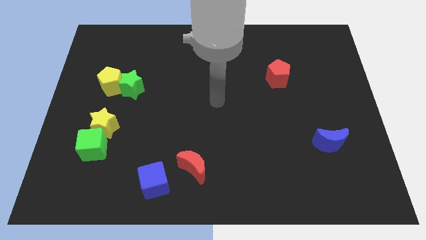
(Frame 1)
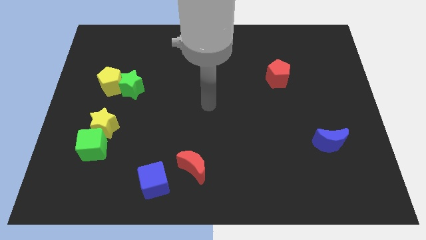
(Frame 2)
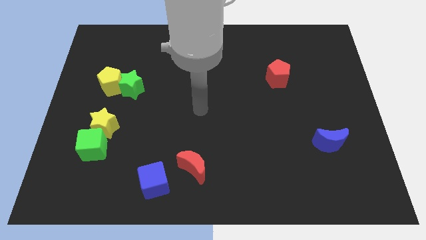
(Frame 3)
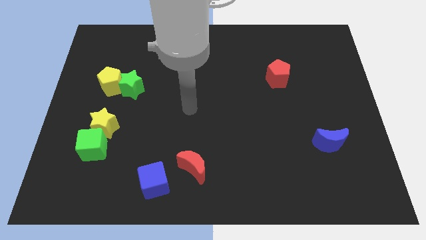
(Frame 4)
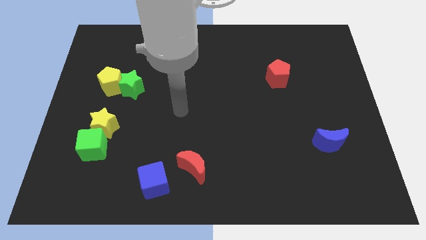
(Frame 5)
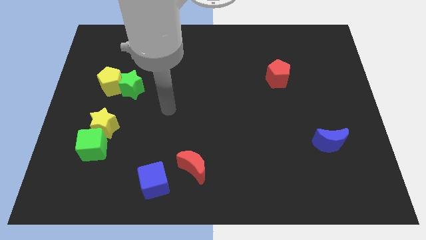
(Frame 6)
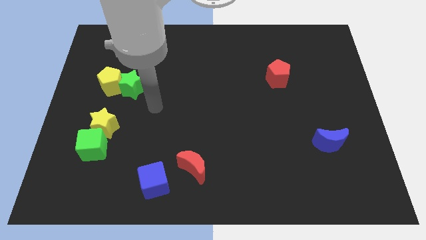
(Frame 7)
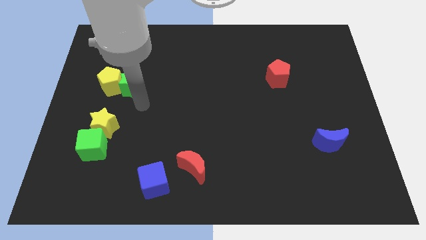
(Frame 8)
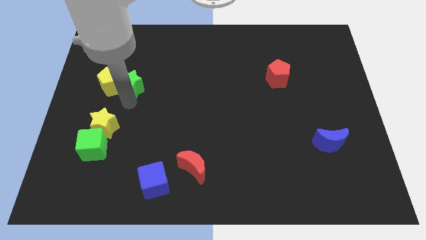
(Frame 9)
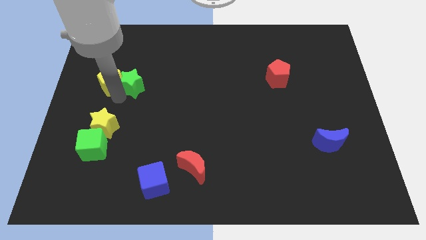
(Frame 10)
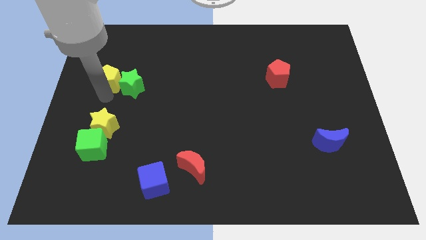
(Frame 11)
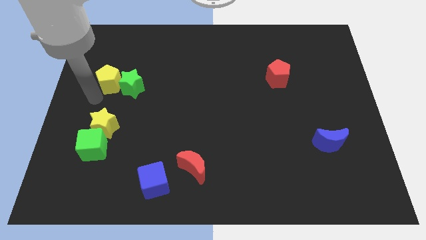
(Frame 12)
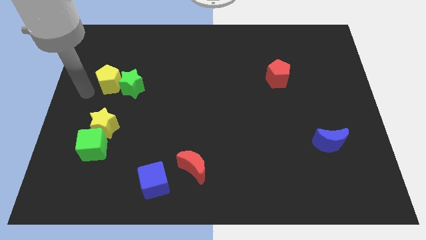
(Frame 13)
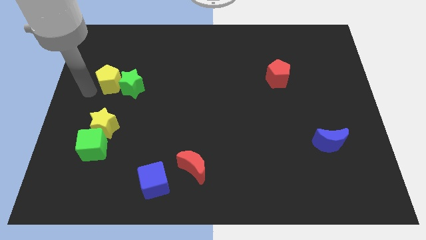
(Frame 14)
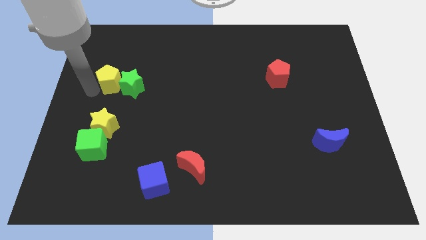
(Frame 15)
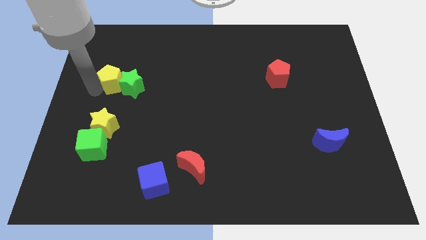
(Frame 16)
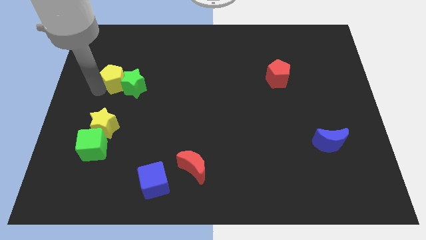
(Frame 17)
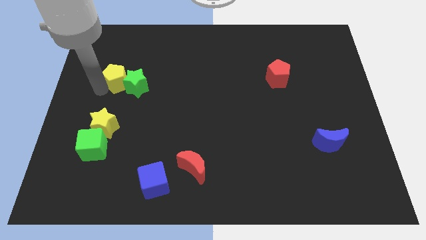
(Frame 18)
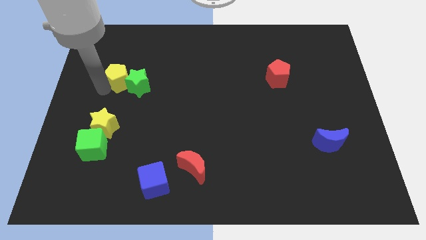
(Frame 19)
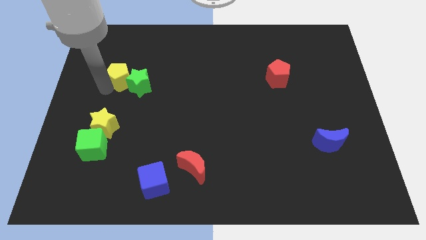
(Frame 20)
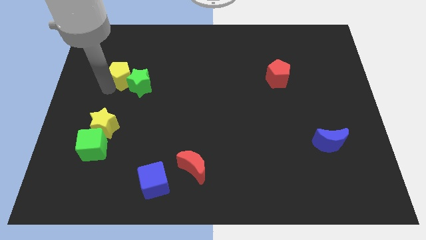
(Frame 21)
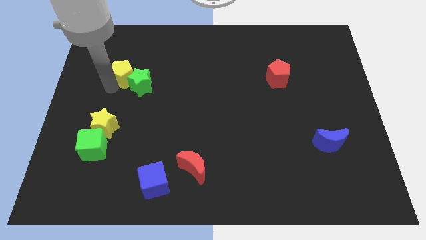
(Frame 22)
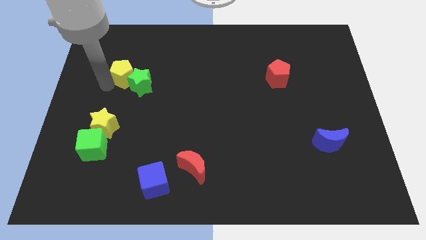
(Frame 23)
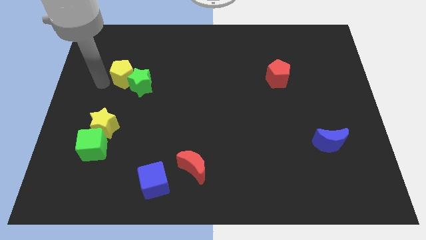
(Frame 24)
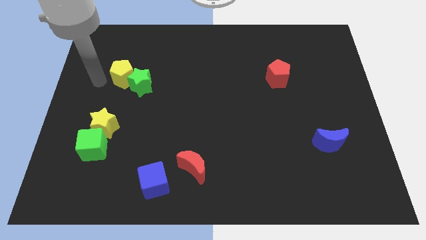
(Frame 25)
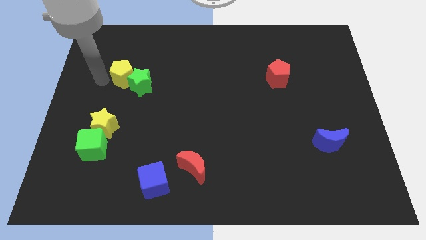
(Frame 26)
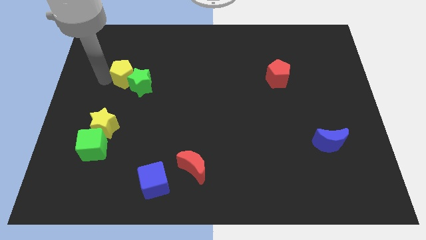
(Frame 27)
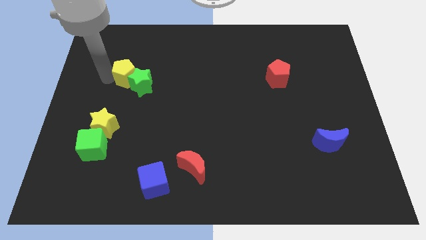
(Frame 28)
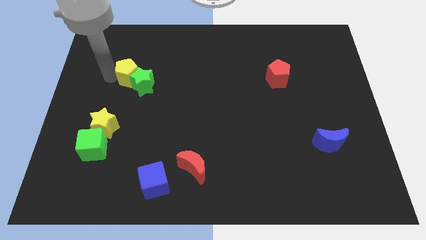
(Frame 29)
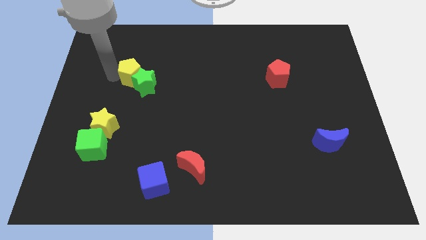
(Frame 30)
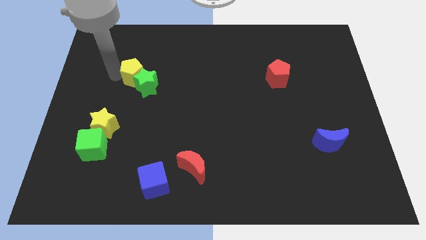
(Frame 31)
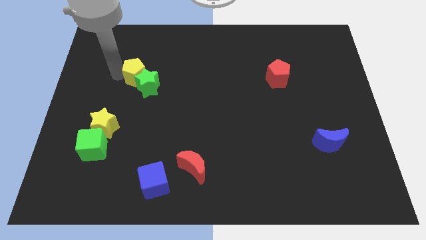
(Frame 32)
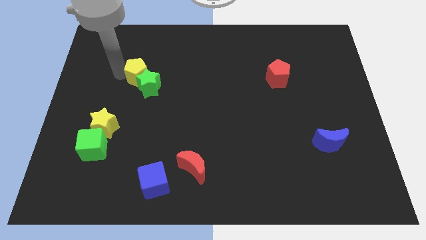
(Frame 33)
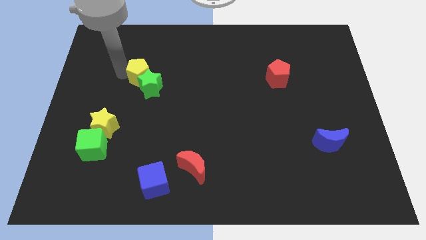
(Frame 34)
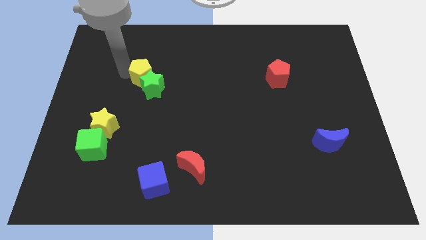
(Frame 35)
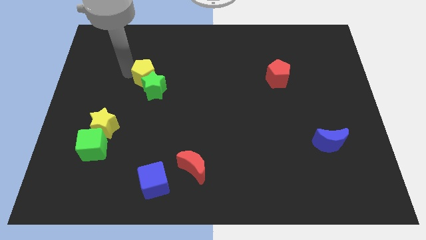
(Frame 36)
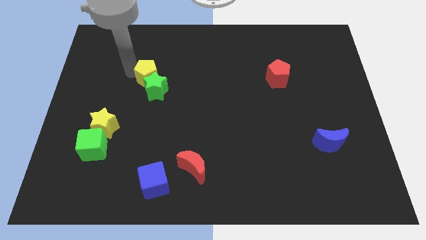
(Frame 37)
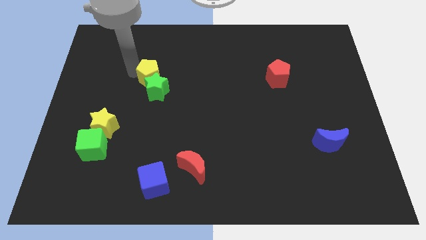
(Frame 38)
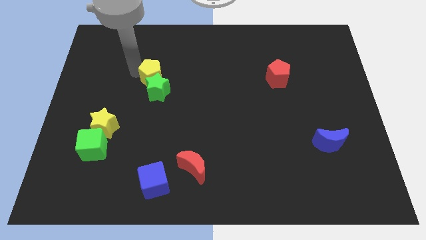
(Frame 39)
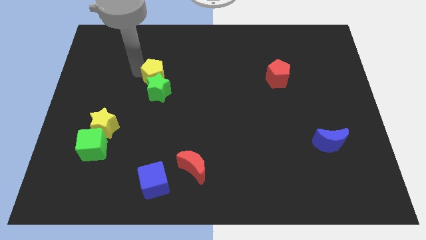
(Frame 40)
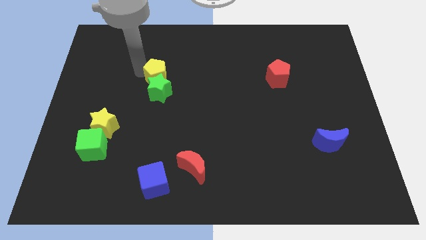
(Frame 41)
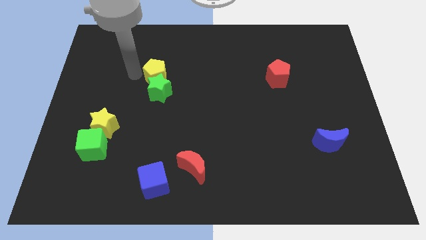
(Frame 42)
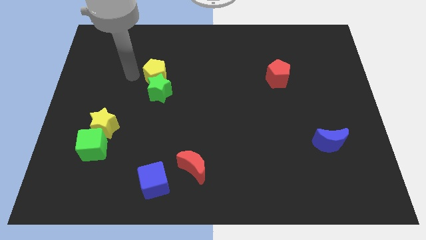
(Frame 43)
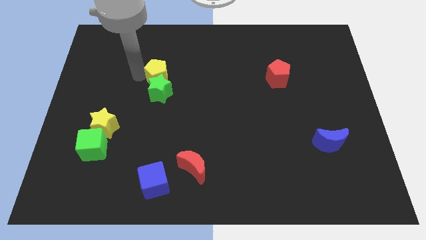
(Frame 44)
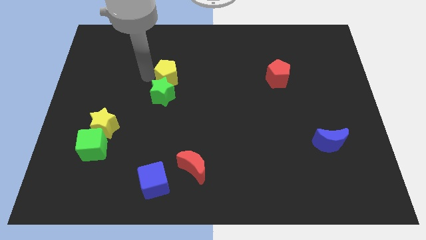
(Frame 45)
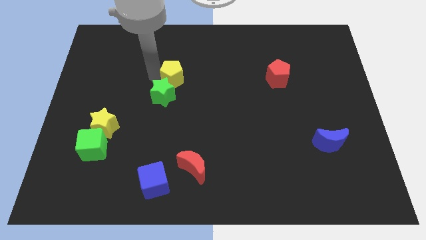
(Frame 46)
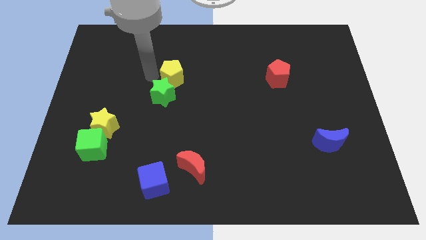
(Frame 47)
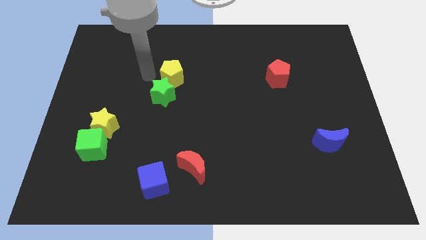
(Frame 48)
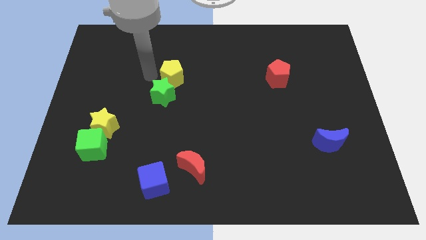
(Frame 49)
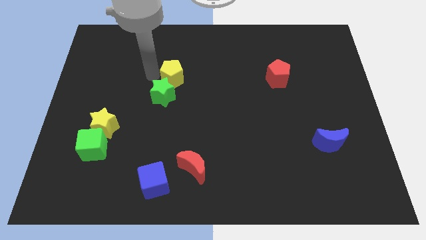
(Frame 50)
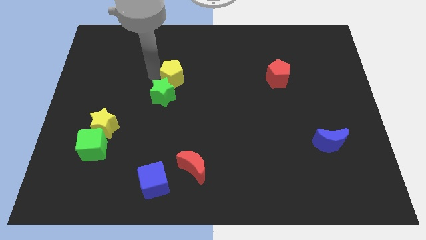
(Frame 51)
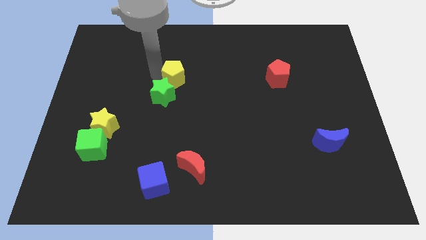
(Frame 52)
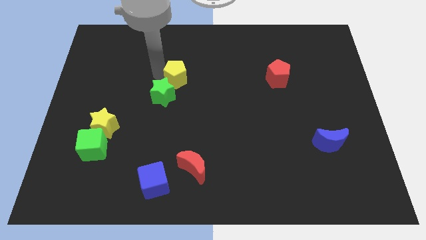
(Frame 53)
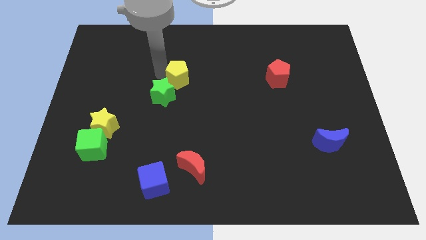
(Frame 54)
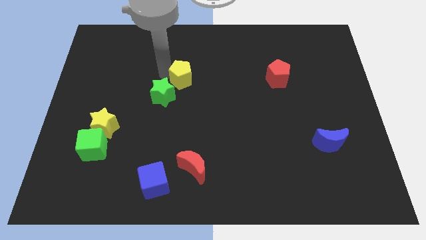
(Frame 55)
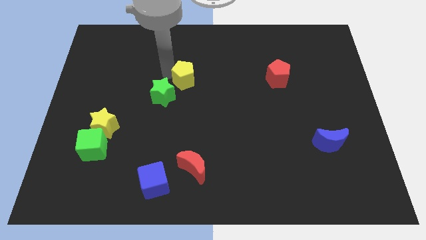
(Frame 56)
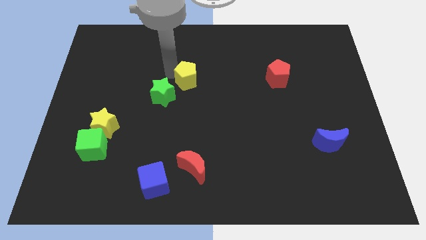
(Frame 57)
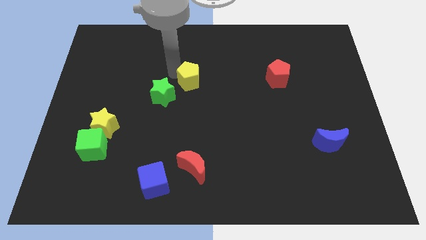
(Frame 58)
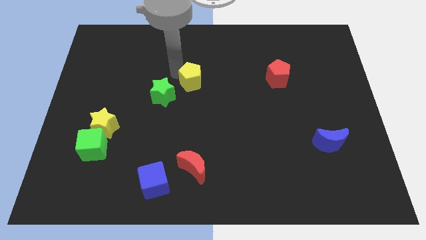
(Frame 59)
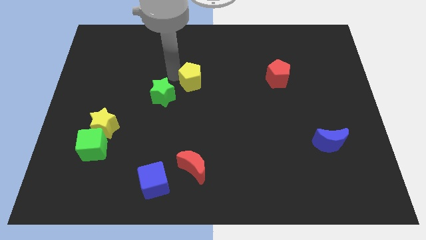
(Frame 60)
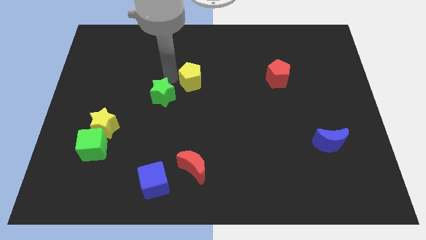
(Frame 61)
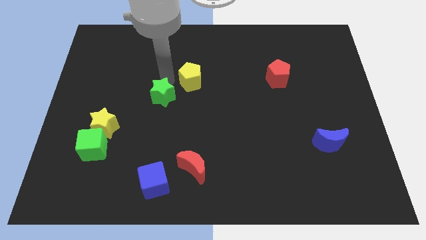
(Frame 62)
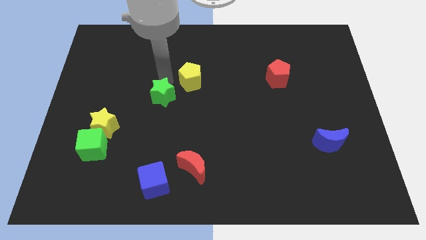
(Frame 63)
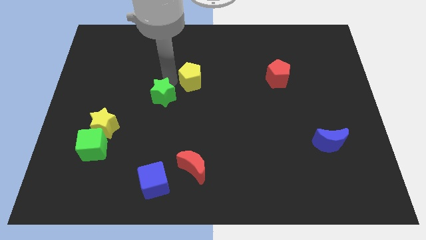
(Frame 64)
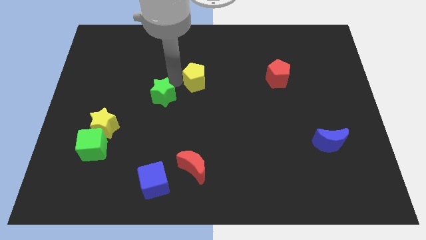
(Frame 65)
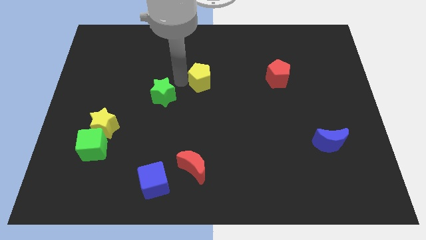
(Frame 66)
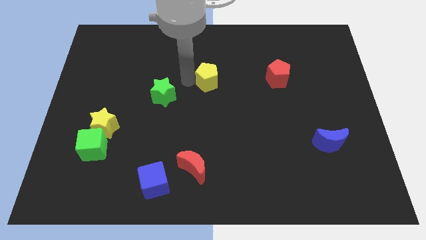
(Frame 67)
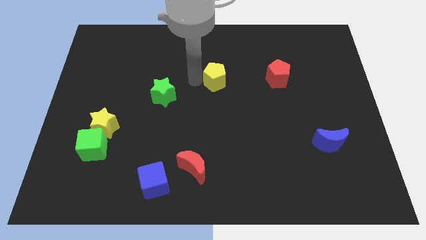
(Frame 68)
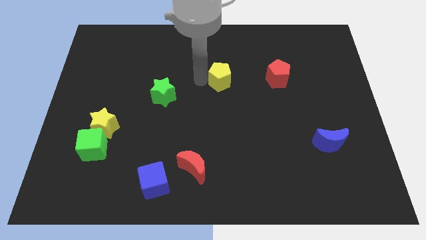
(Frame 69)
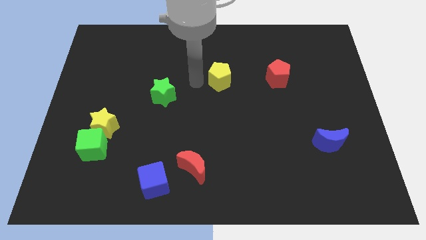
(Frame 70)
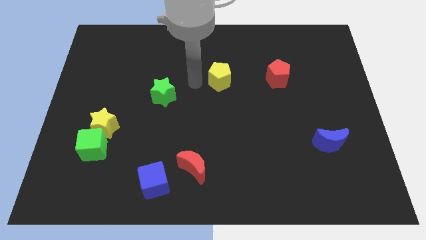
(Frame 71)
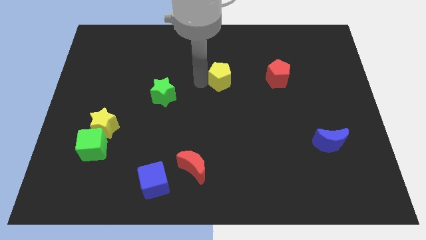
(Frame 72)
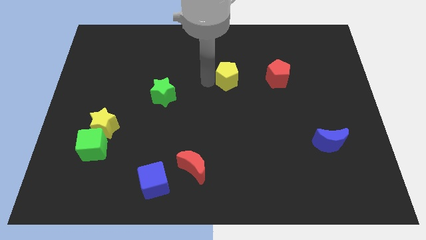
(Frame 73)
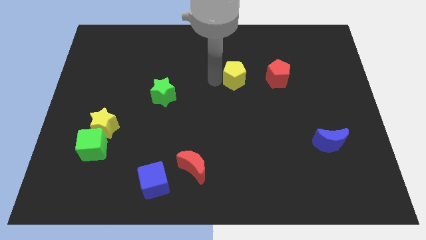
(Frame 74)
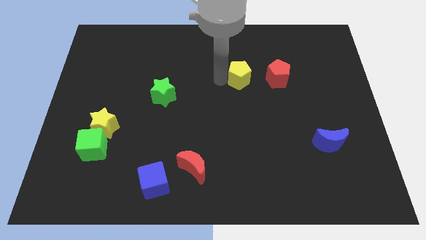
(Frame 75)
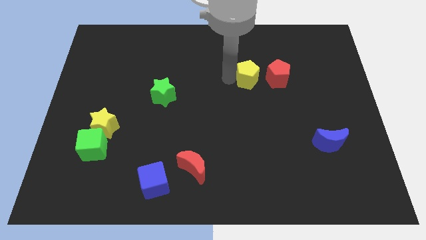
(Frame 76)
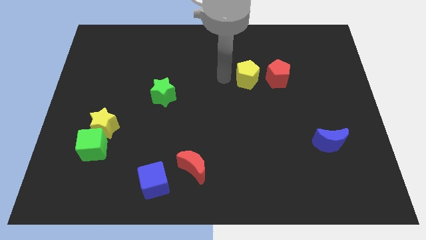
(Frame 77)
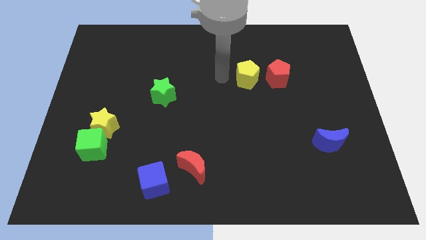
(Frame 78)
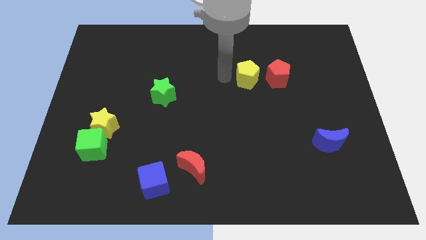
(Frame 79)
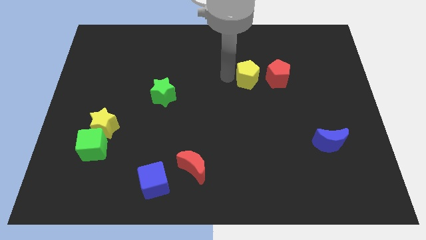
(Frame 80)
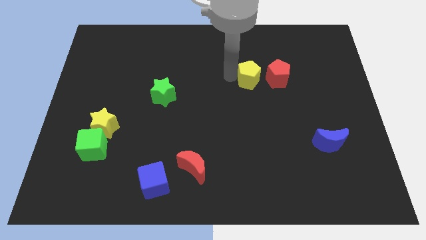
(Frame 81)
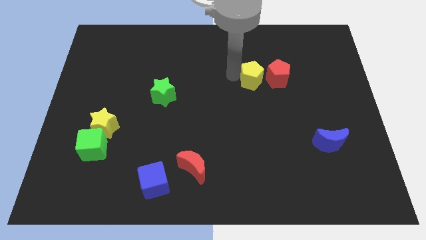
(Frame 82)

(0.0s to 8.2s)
put the yellow pentagon towards the red pentagon
